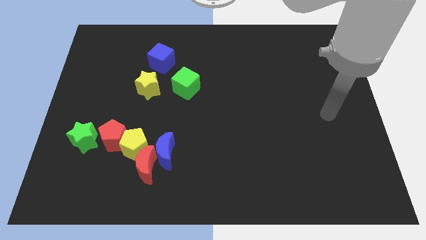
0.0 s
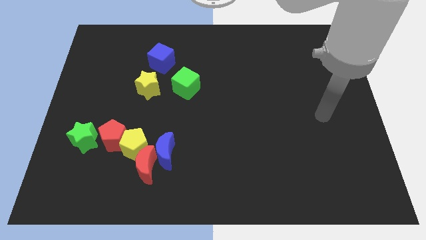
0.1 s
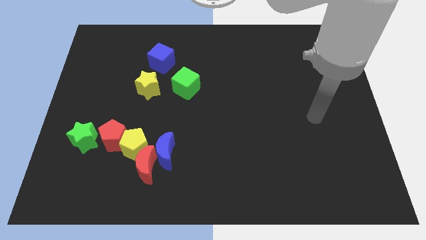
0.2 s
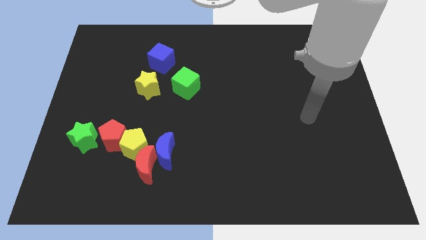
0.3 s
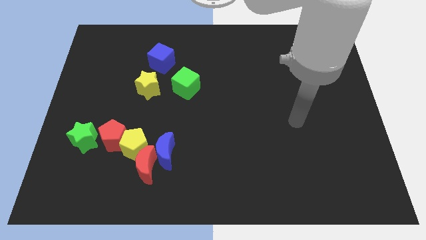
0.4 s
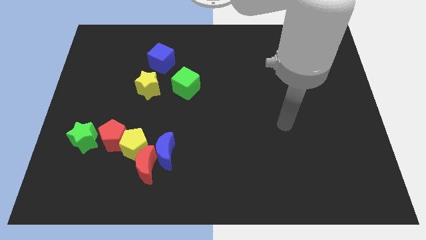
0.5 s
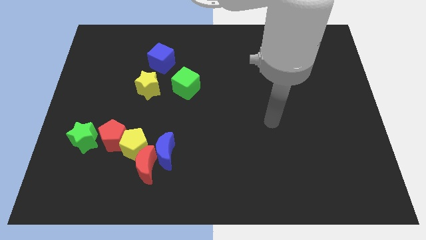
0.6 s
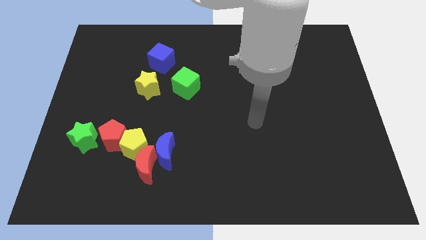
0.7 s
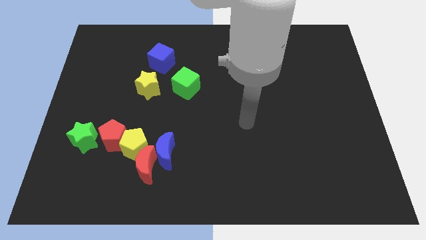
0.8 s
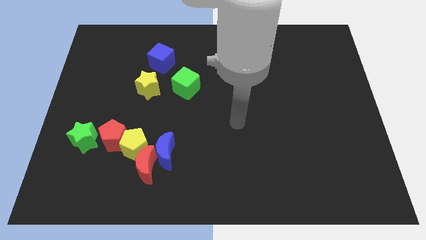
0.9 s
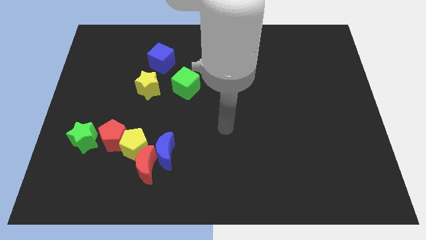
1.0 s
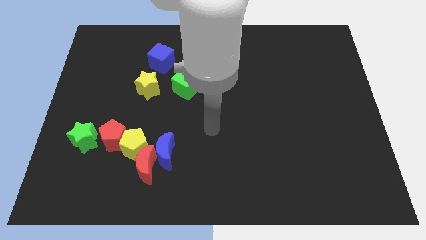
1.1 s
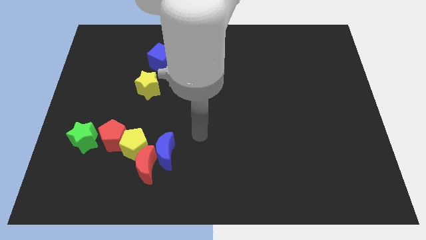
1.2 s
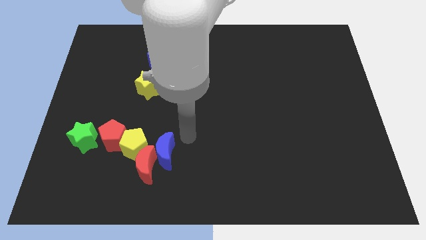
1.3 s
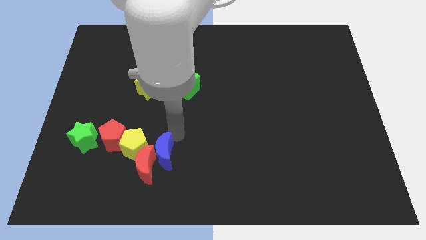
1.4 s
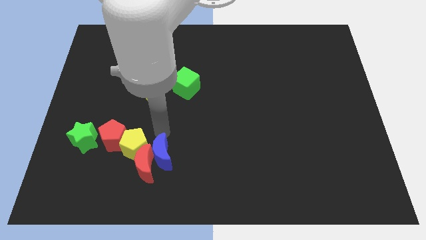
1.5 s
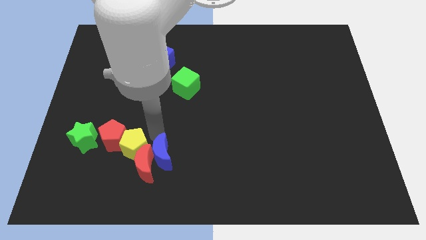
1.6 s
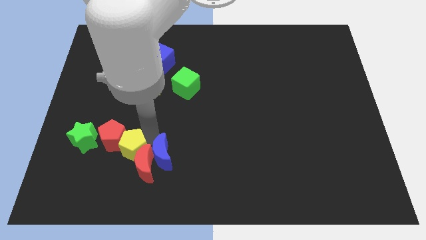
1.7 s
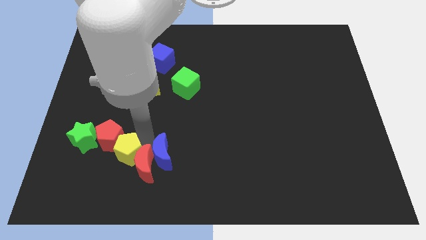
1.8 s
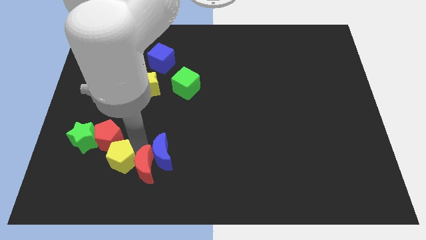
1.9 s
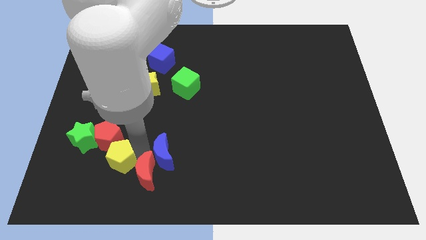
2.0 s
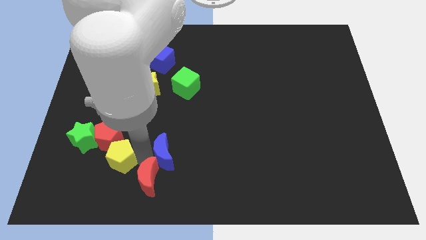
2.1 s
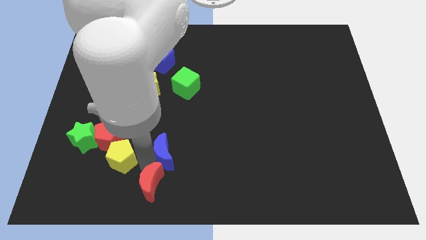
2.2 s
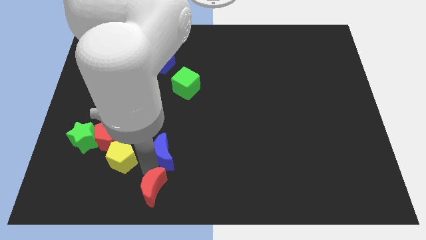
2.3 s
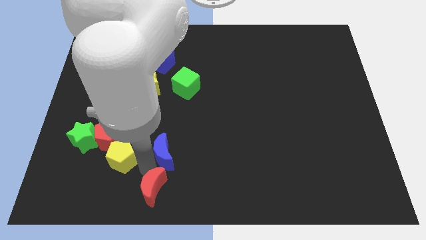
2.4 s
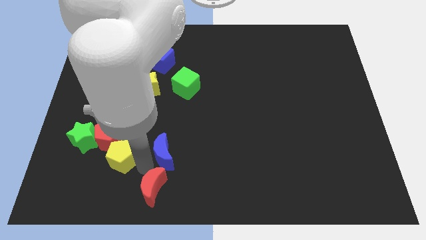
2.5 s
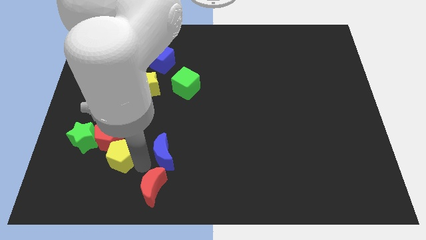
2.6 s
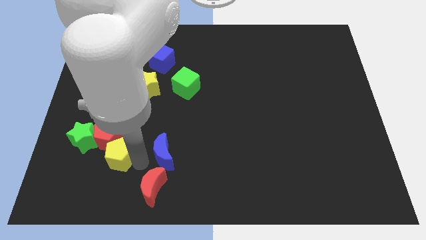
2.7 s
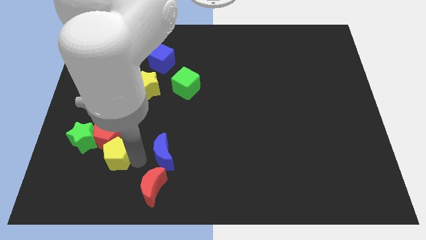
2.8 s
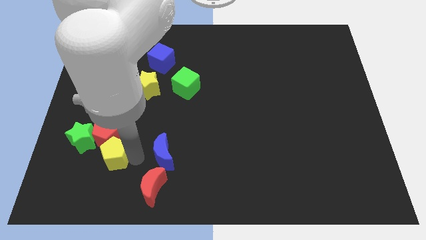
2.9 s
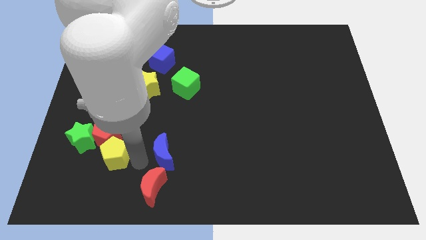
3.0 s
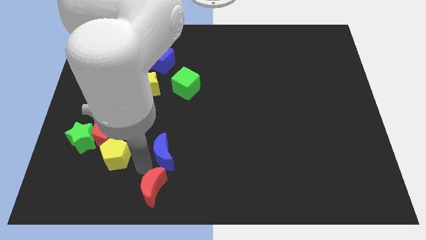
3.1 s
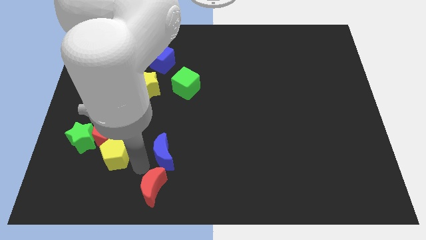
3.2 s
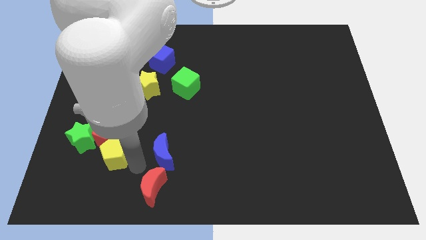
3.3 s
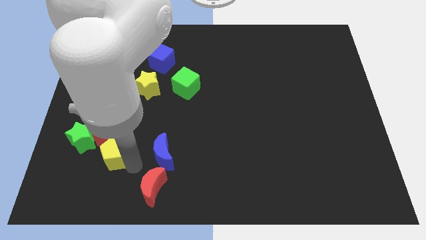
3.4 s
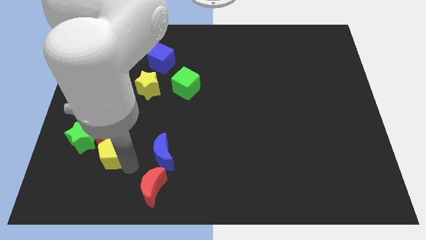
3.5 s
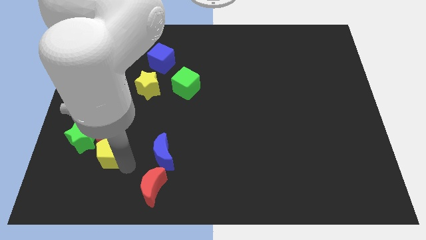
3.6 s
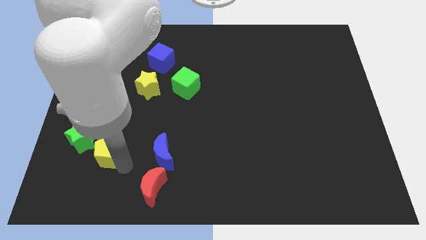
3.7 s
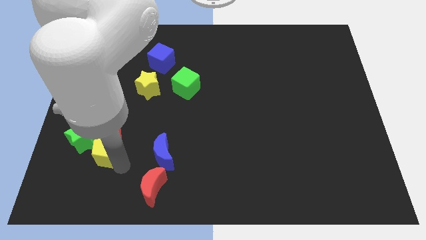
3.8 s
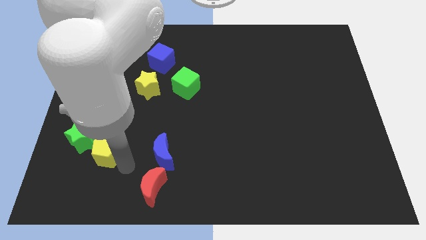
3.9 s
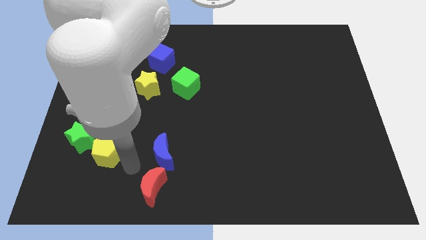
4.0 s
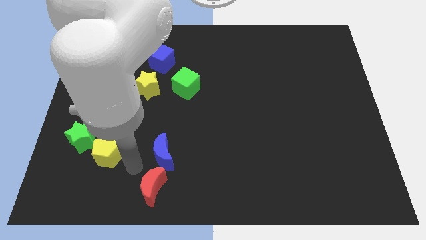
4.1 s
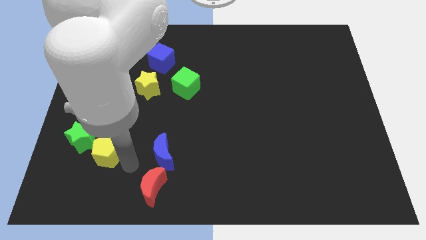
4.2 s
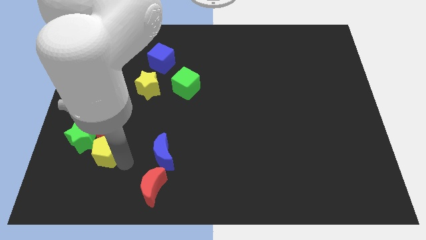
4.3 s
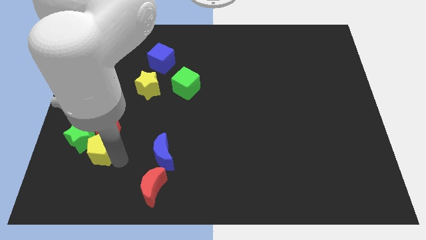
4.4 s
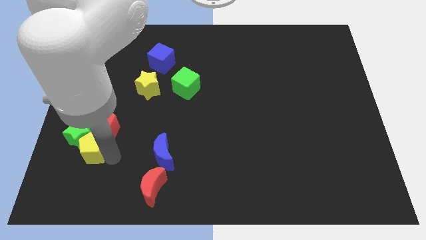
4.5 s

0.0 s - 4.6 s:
put the yellow pentagon towards the green star

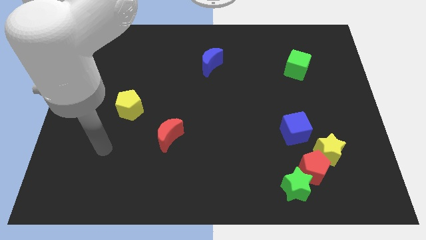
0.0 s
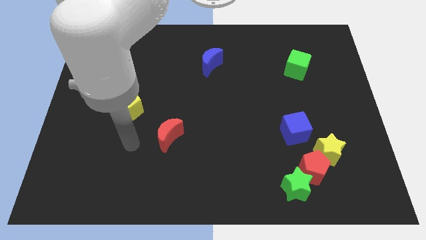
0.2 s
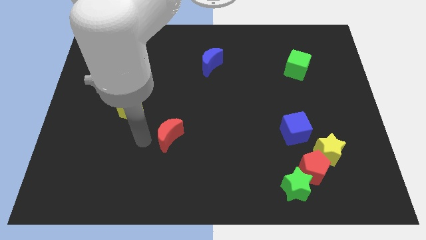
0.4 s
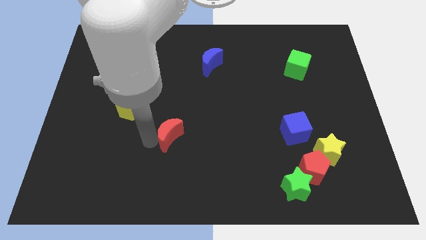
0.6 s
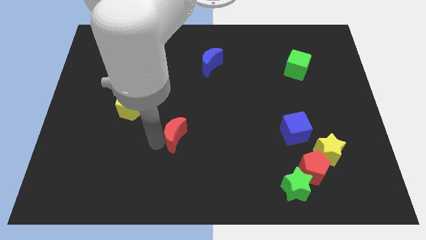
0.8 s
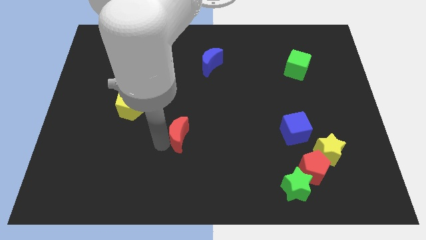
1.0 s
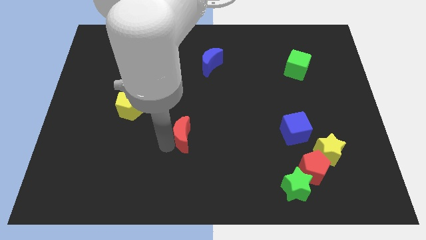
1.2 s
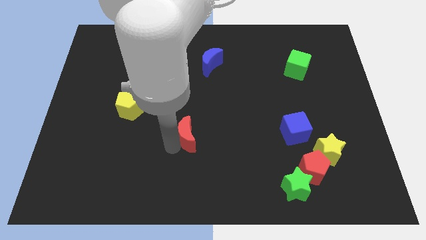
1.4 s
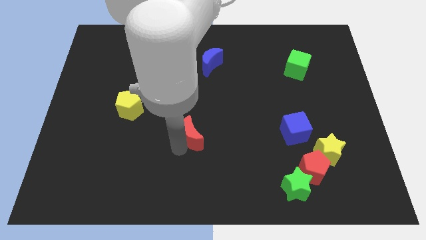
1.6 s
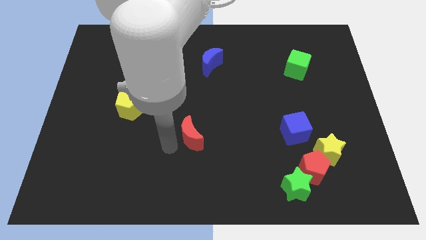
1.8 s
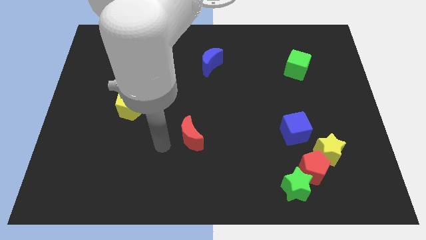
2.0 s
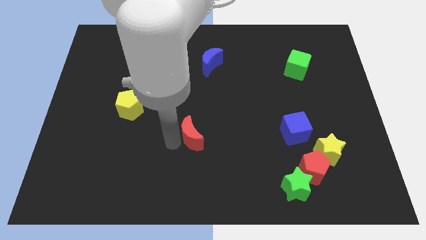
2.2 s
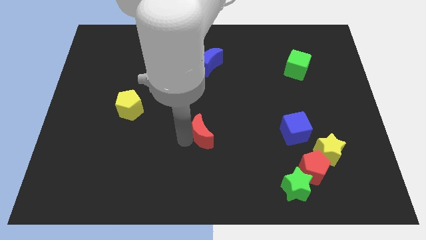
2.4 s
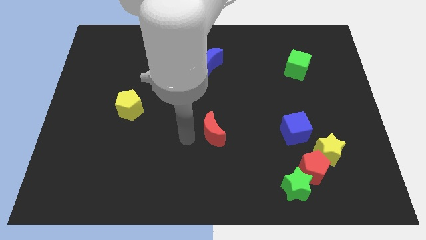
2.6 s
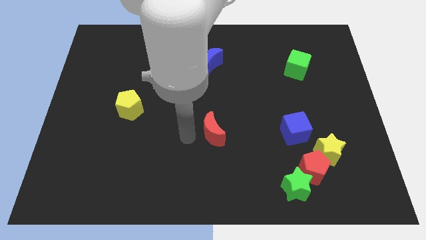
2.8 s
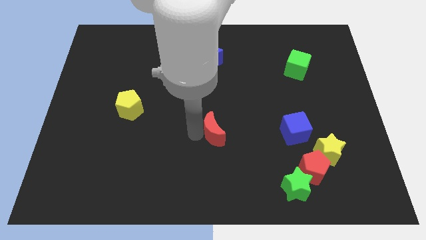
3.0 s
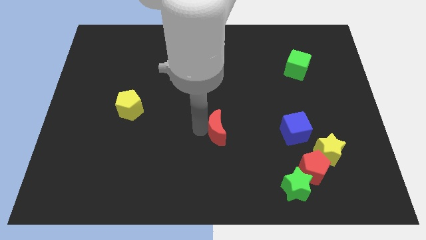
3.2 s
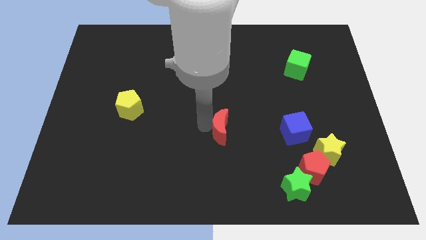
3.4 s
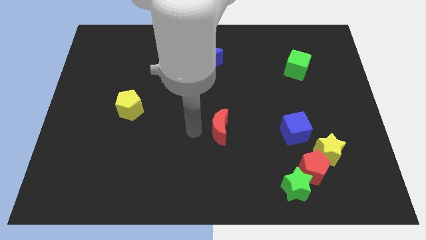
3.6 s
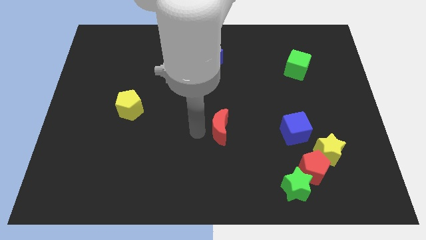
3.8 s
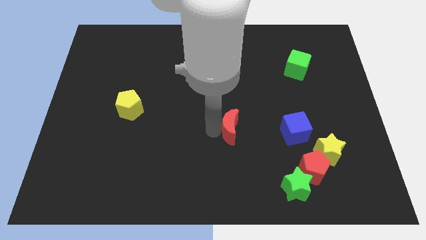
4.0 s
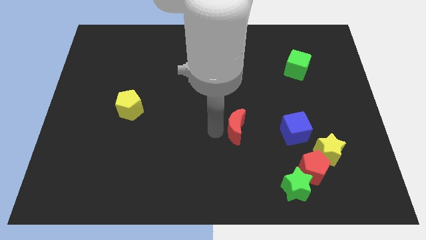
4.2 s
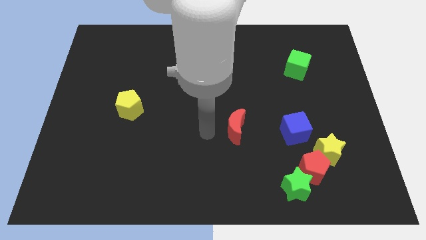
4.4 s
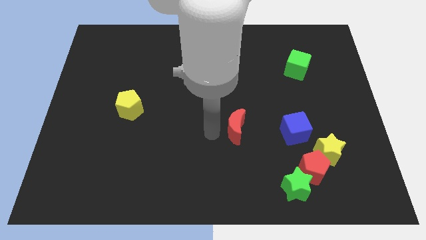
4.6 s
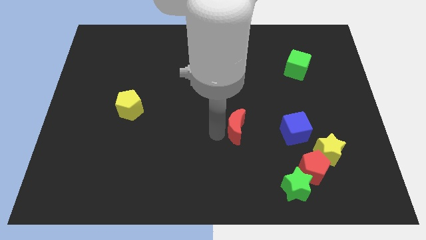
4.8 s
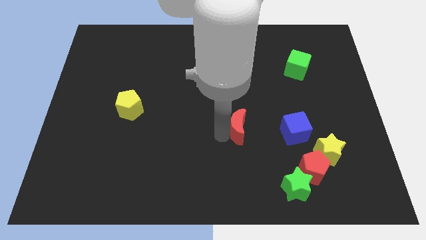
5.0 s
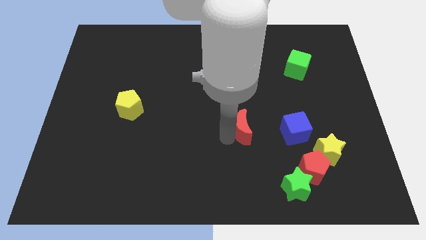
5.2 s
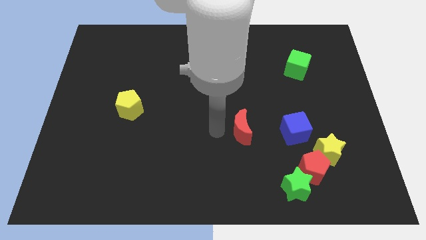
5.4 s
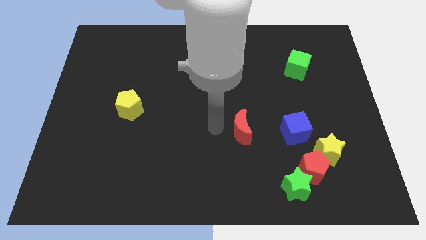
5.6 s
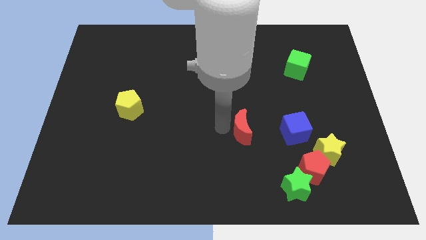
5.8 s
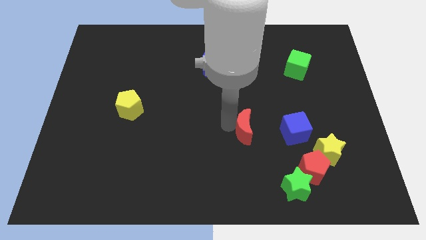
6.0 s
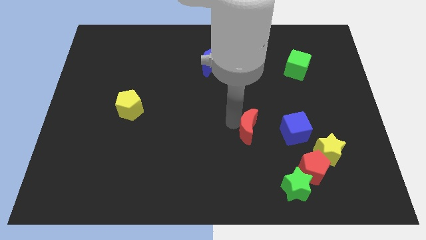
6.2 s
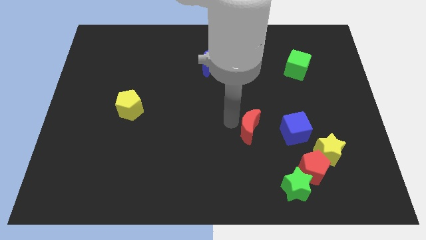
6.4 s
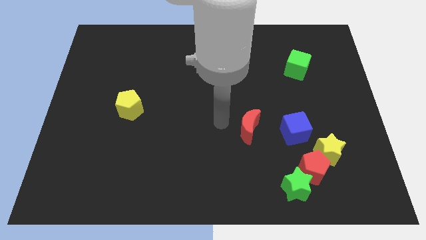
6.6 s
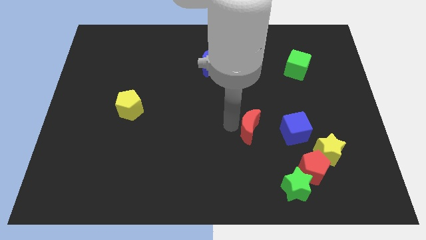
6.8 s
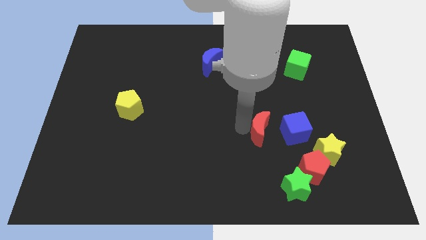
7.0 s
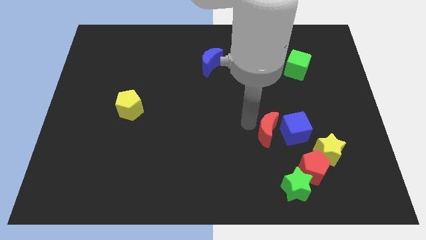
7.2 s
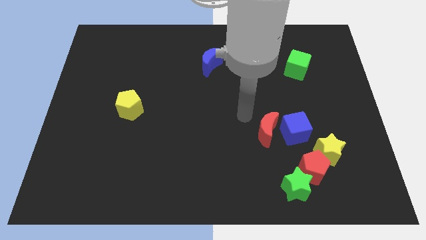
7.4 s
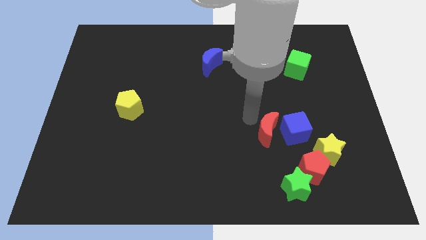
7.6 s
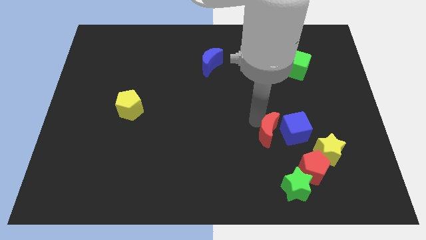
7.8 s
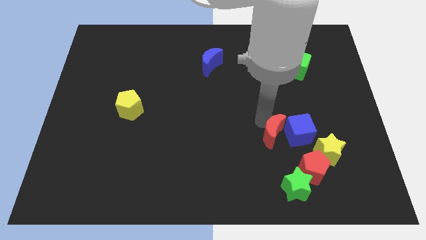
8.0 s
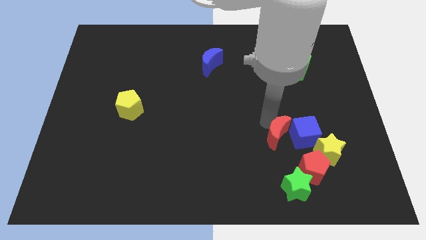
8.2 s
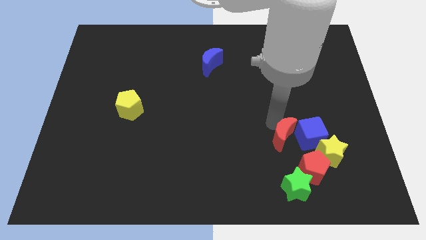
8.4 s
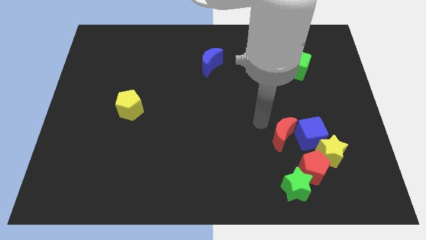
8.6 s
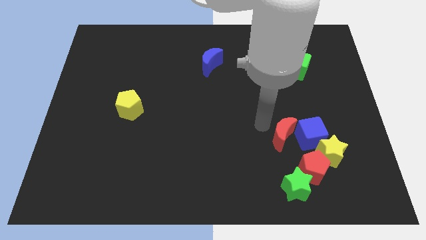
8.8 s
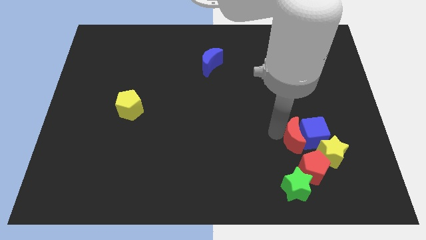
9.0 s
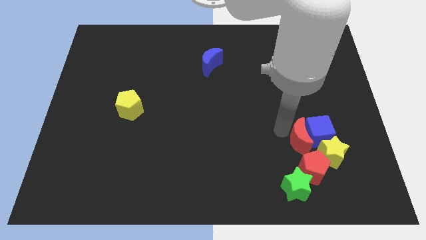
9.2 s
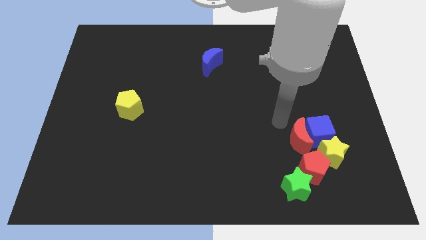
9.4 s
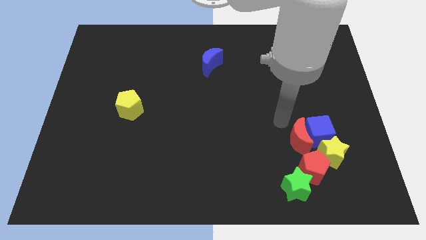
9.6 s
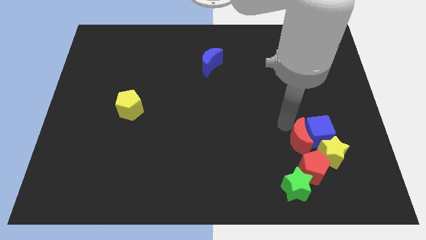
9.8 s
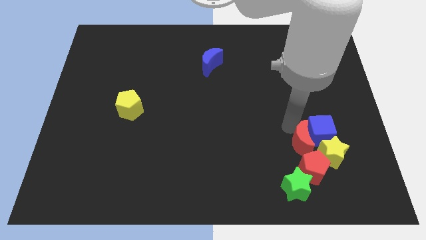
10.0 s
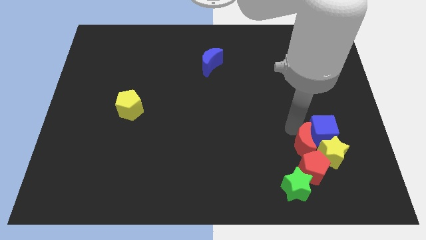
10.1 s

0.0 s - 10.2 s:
put the red moon towards the yellow star
